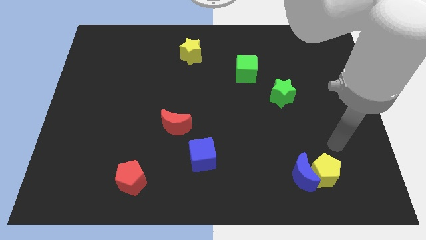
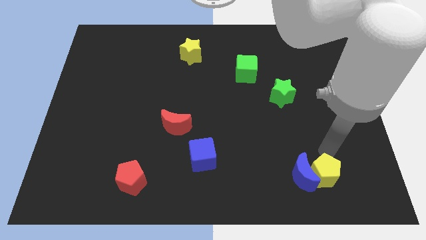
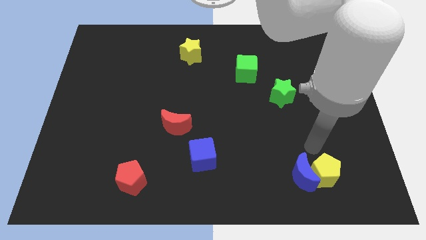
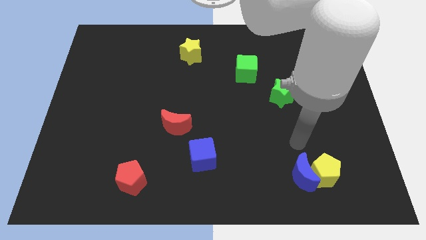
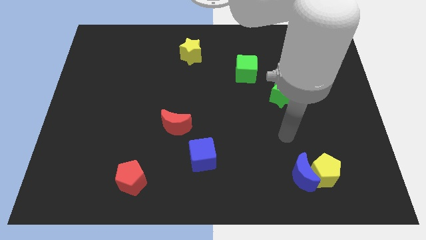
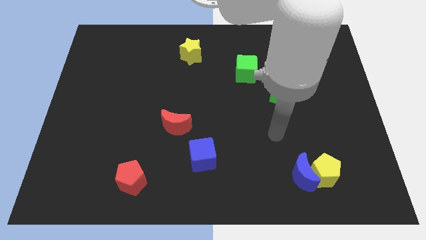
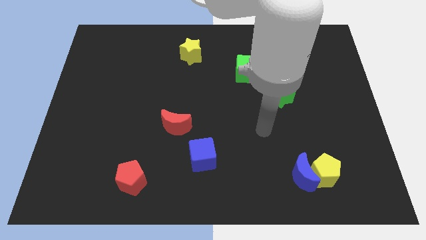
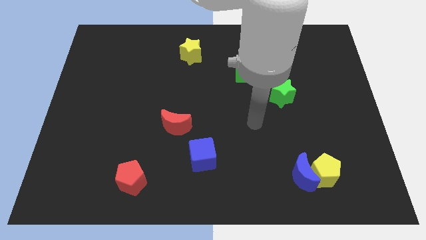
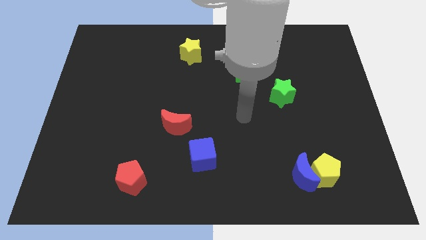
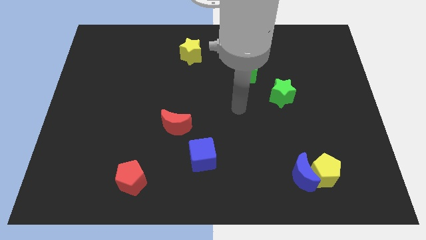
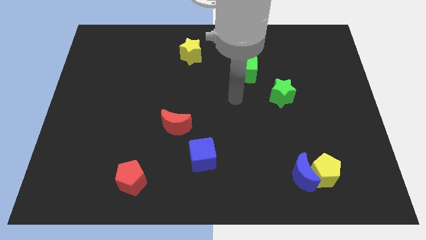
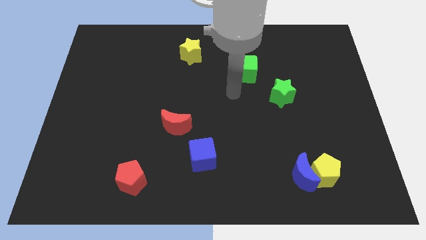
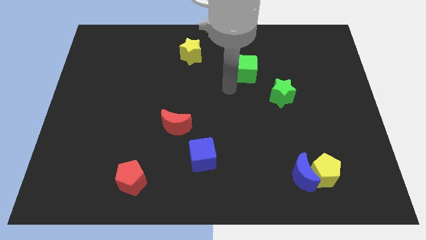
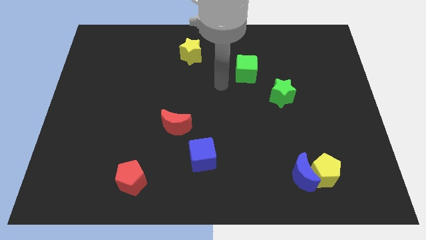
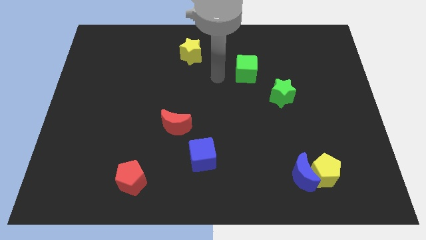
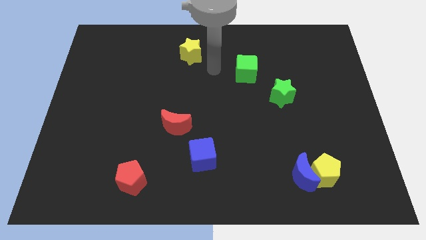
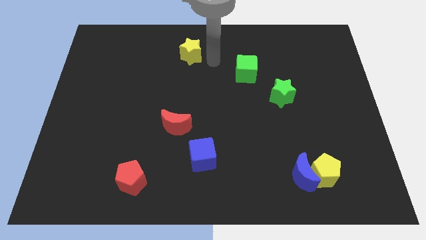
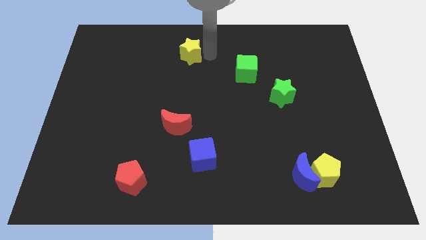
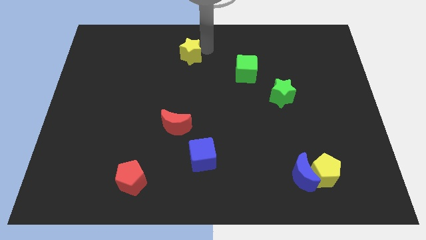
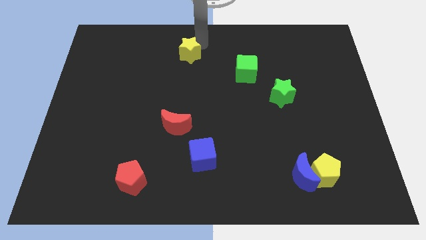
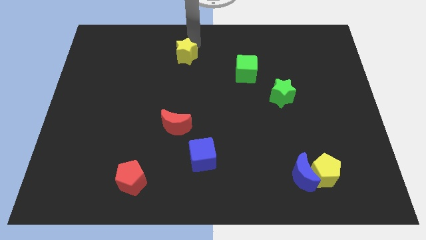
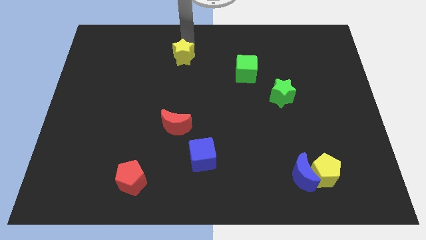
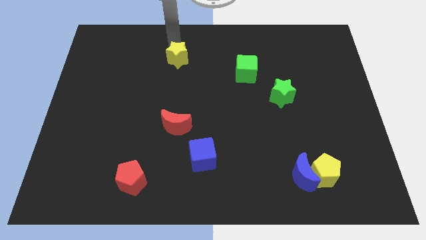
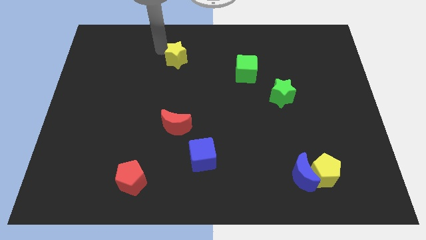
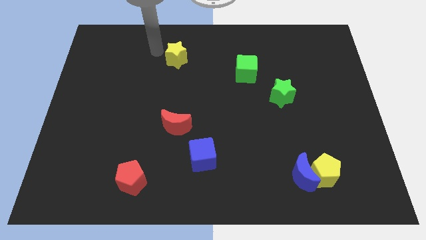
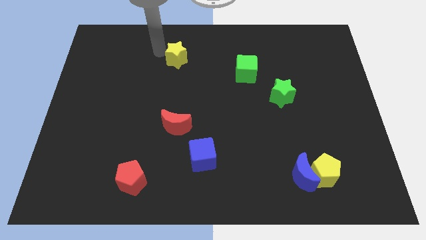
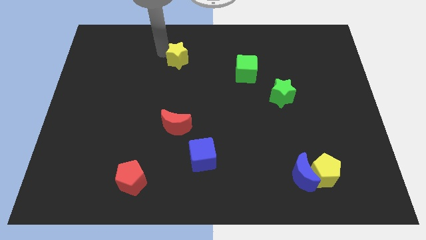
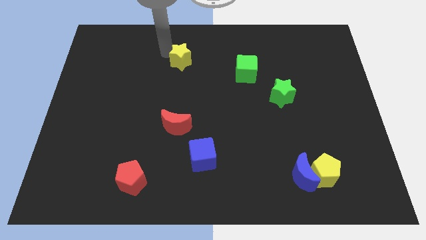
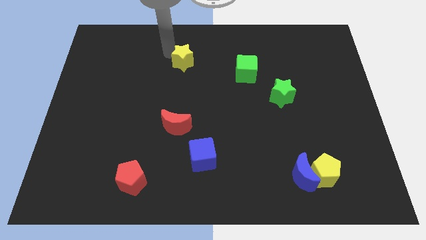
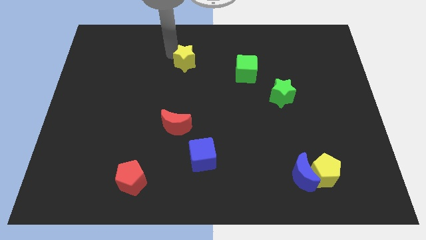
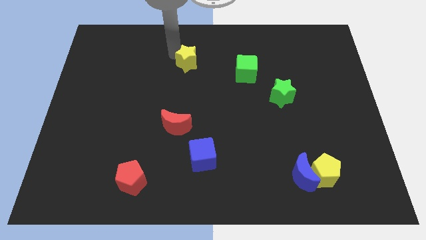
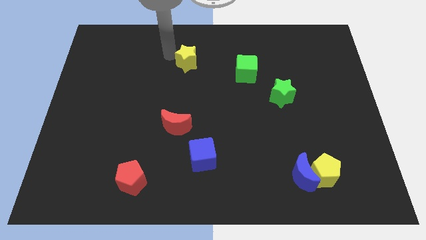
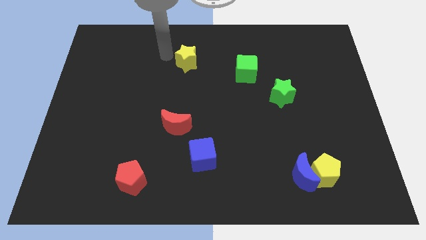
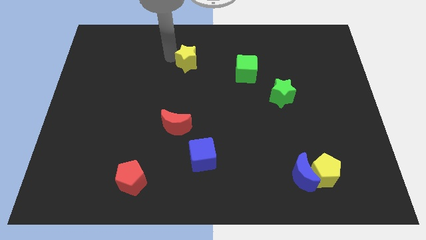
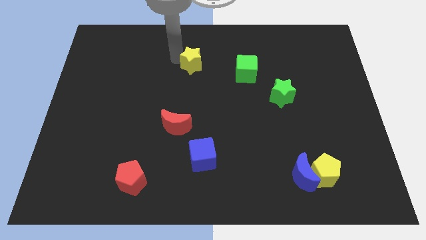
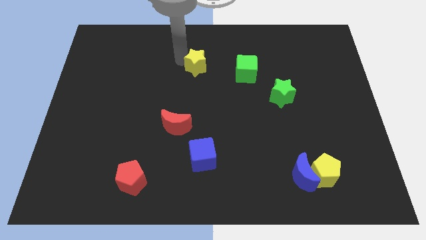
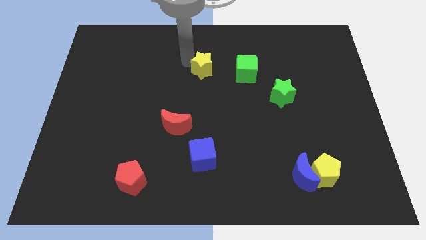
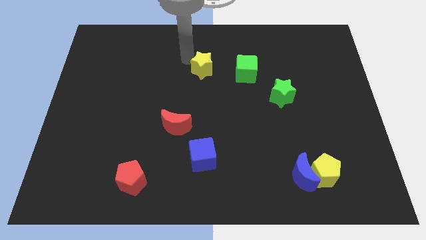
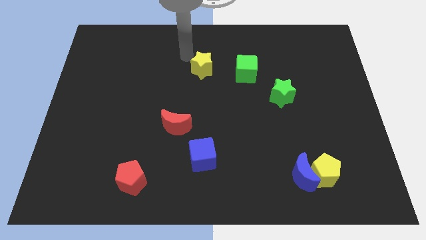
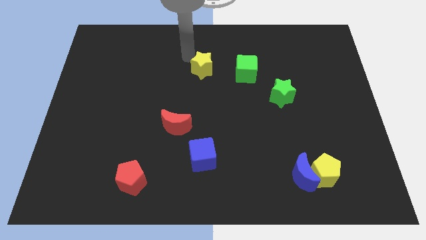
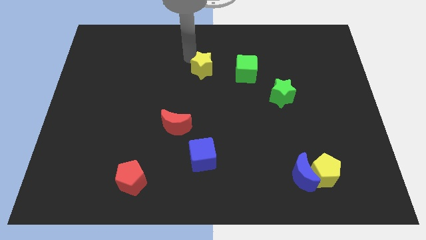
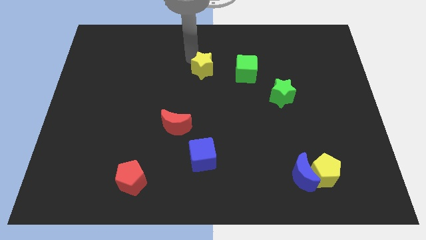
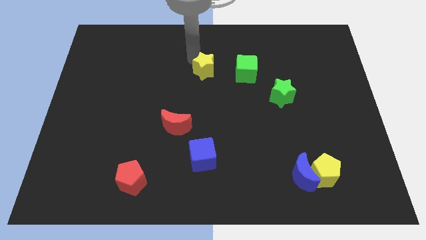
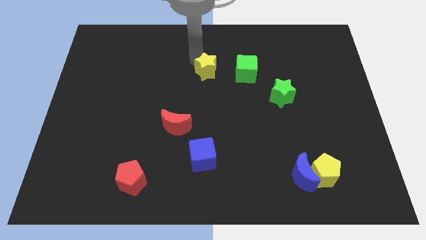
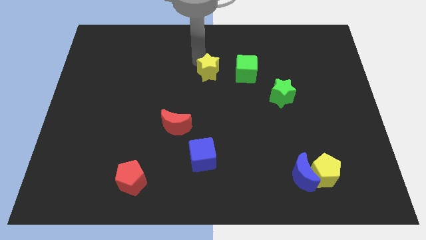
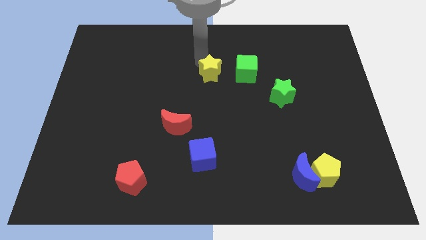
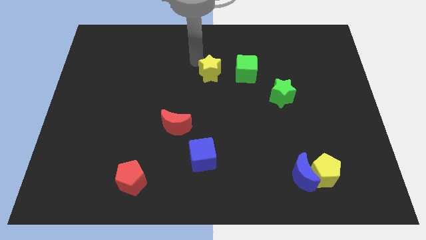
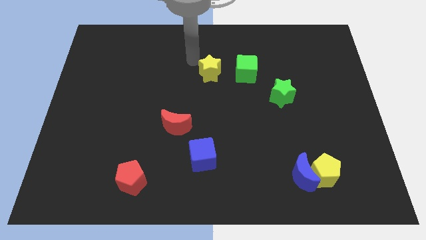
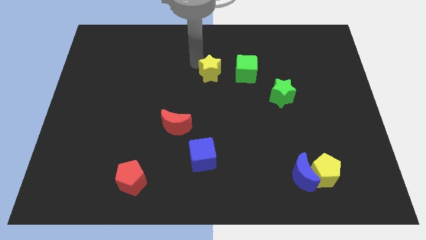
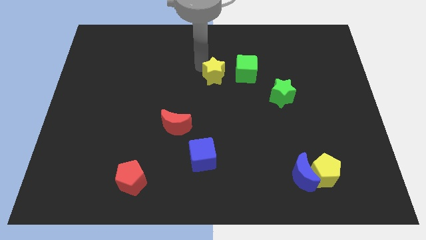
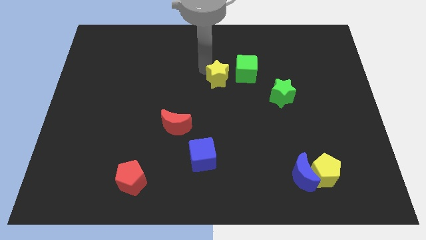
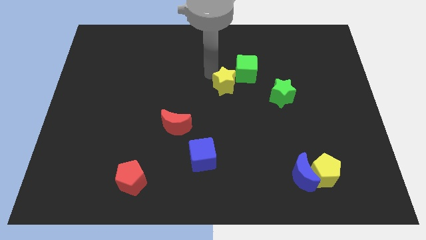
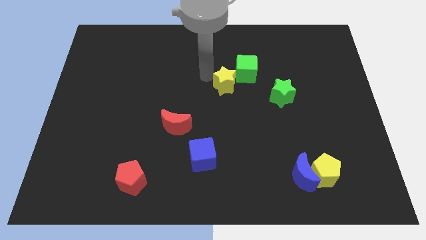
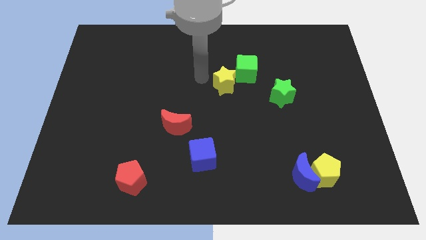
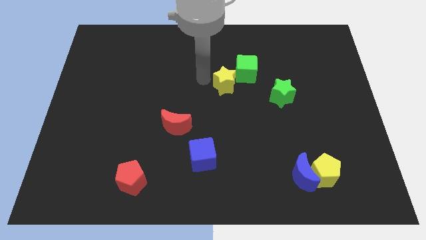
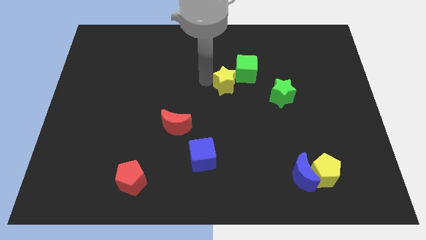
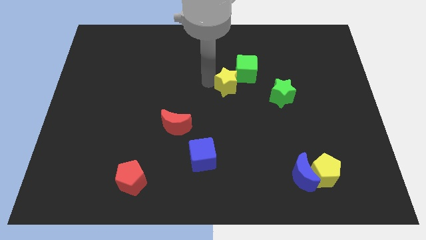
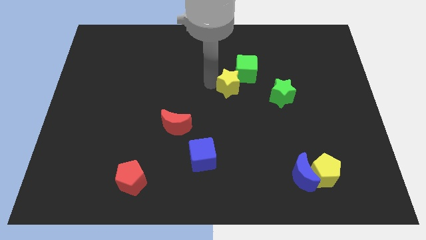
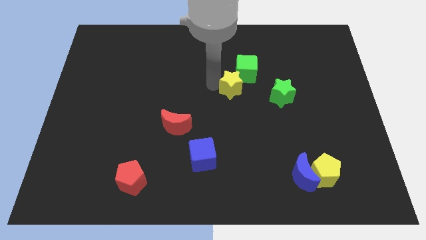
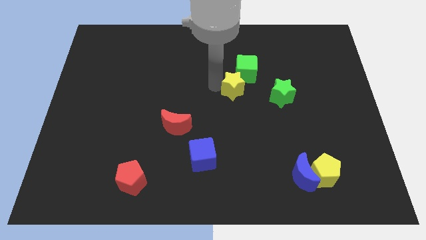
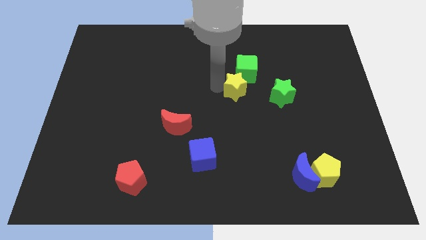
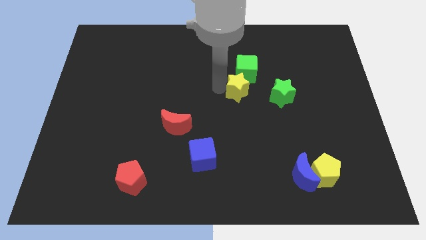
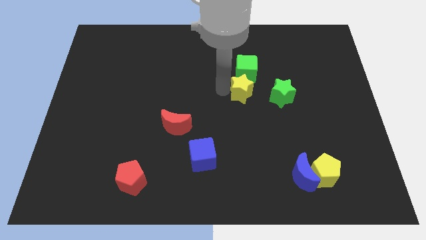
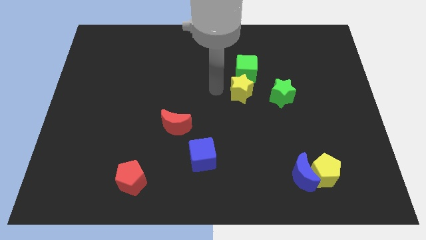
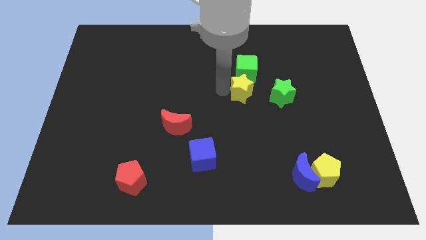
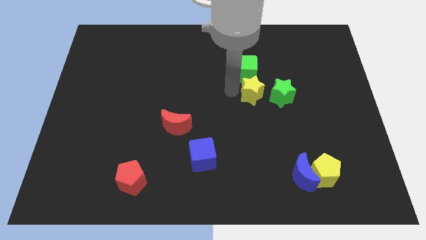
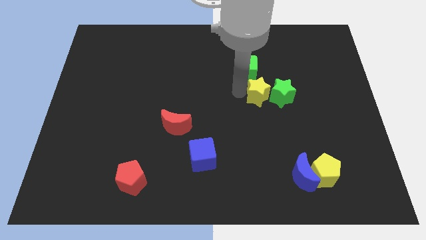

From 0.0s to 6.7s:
push the yellow star close to the green star

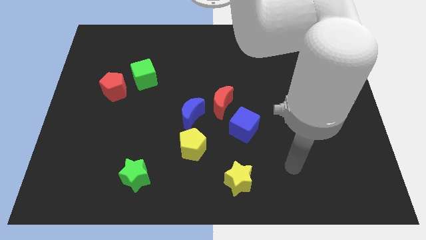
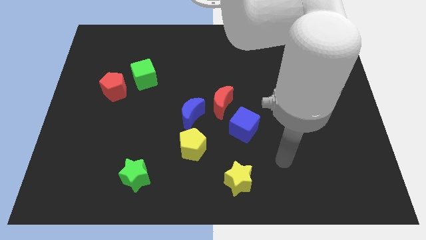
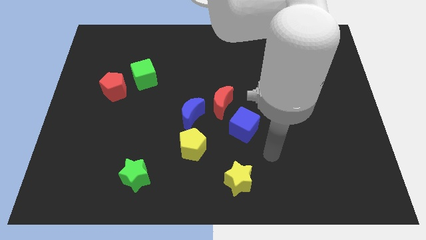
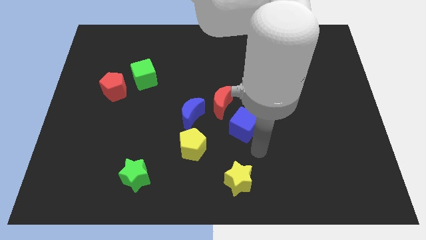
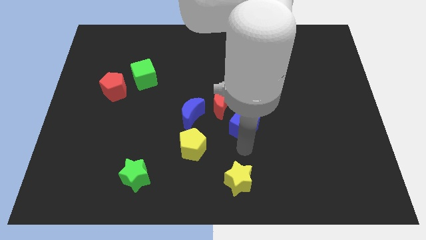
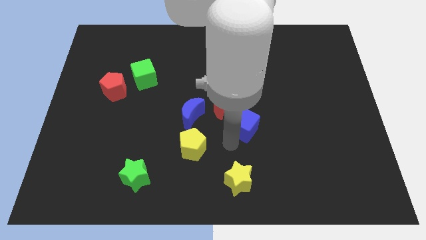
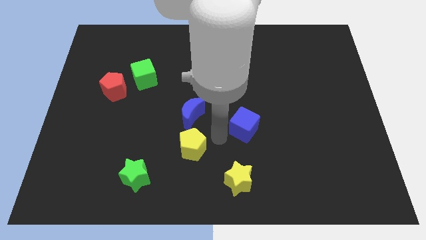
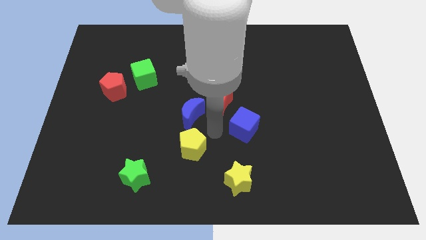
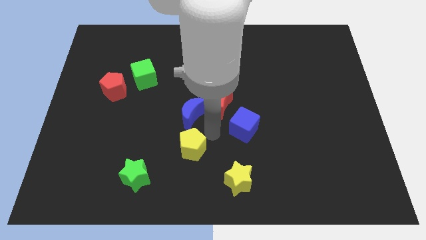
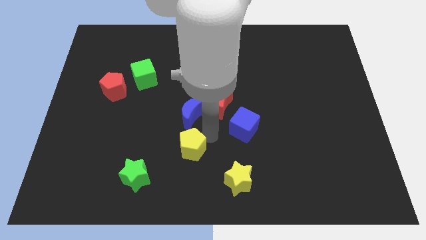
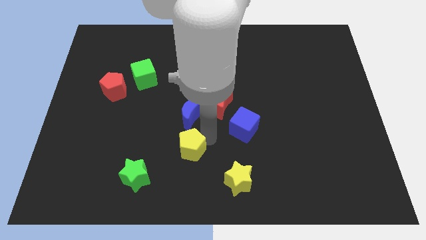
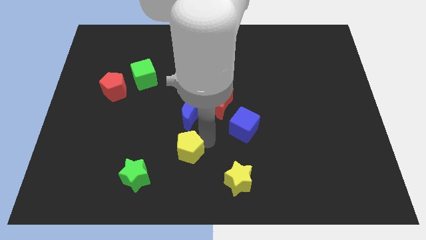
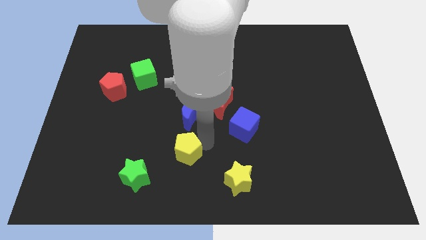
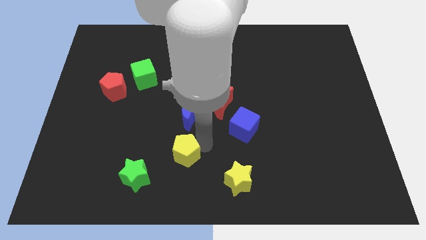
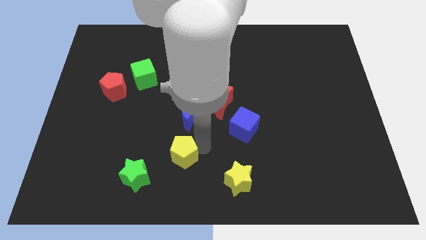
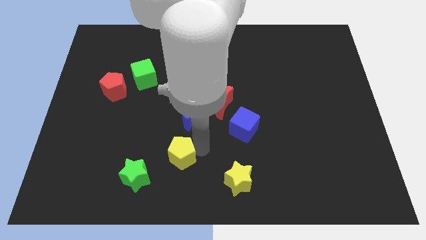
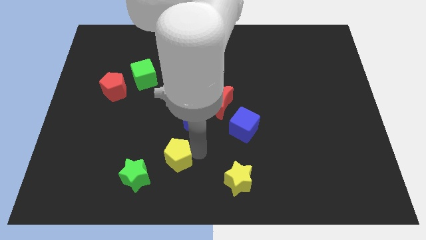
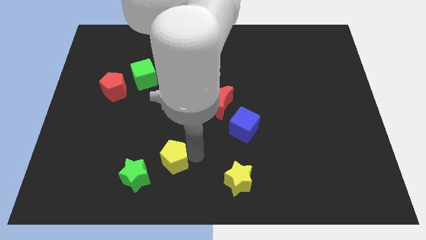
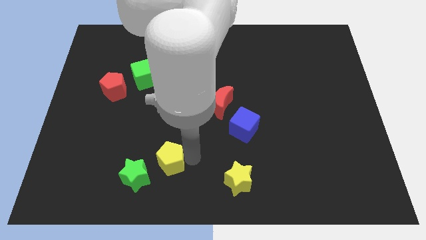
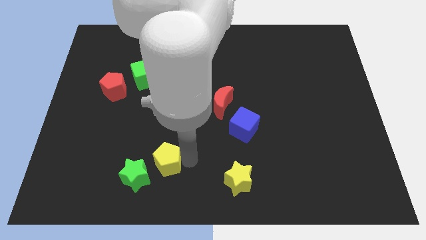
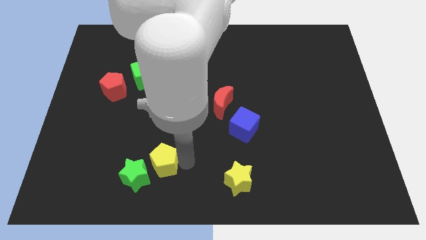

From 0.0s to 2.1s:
slide the yellow pentagon close to the green star
